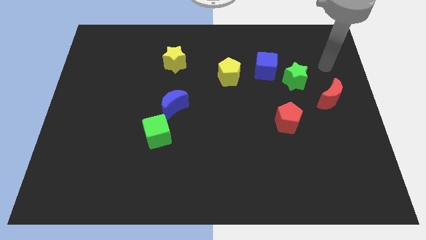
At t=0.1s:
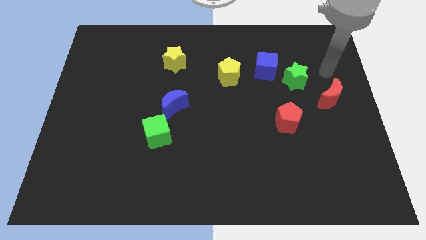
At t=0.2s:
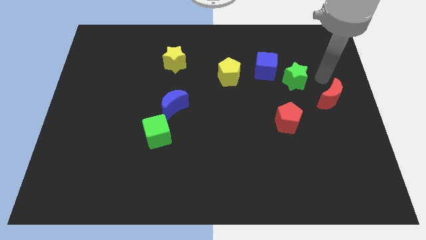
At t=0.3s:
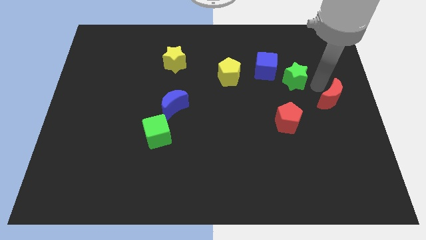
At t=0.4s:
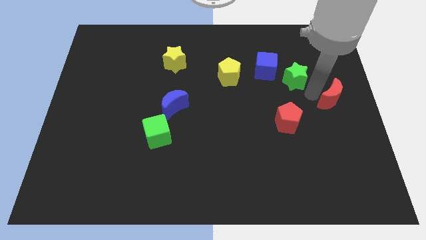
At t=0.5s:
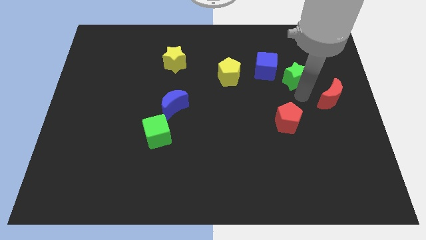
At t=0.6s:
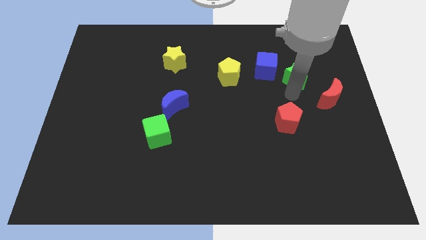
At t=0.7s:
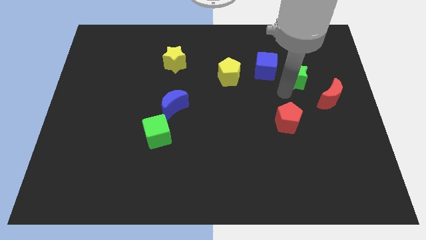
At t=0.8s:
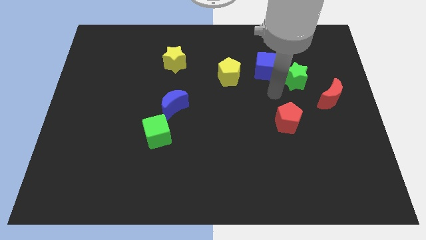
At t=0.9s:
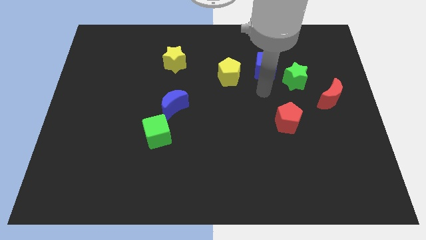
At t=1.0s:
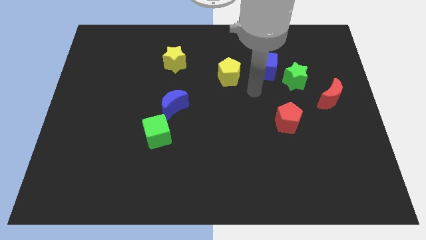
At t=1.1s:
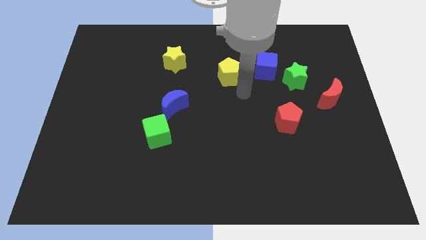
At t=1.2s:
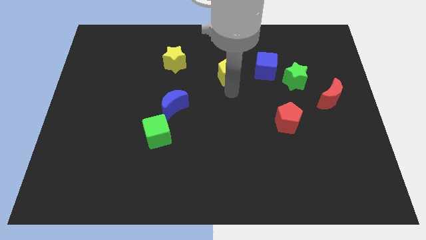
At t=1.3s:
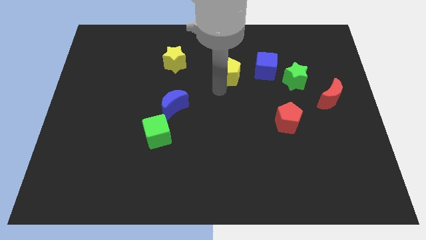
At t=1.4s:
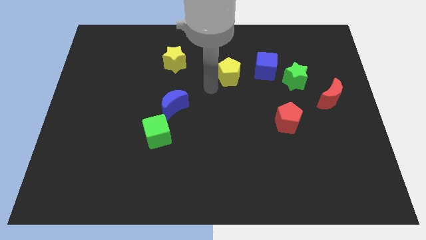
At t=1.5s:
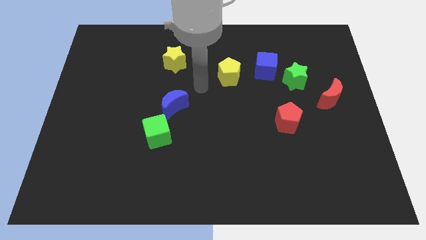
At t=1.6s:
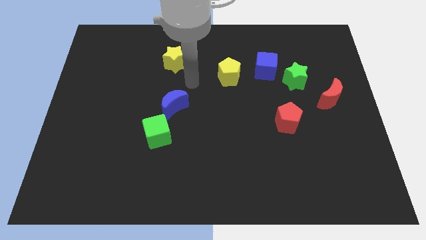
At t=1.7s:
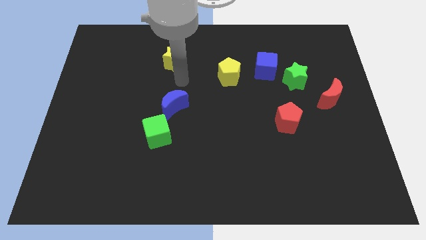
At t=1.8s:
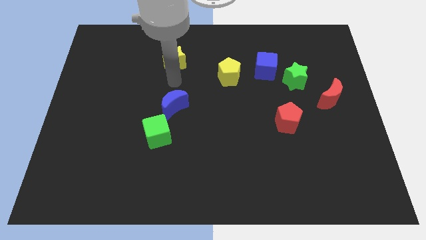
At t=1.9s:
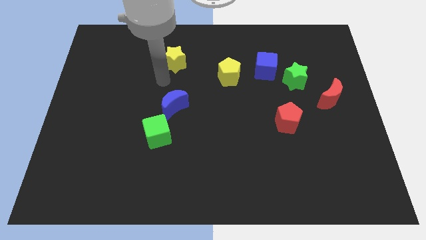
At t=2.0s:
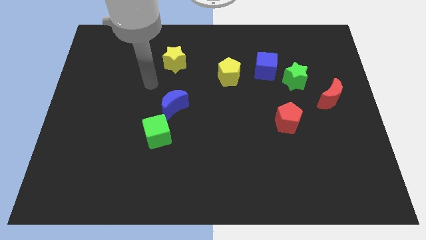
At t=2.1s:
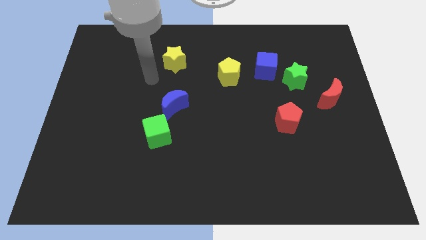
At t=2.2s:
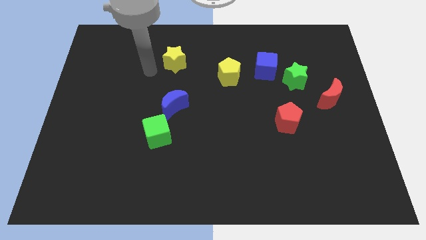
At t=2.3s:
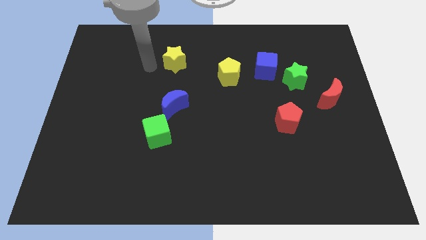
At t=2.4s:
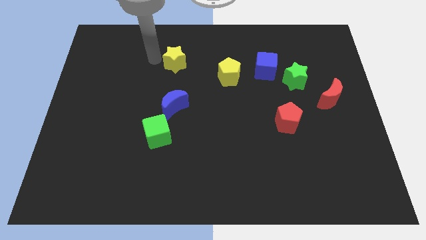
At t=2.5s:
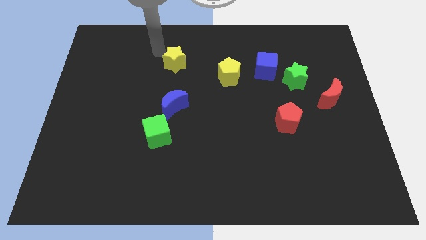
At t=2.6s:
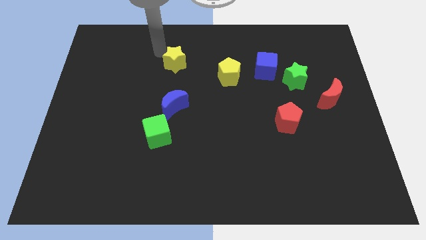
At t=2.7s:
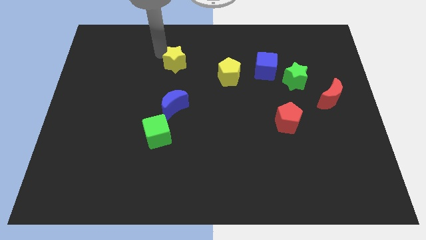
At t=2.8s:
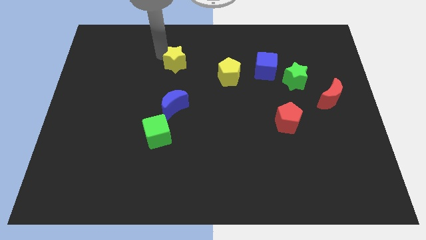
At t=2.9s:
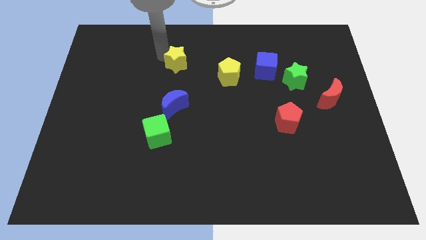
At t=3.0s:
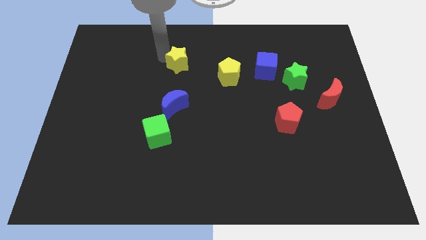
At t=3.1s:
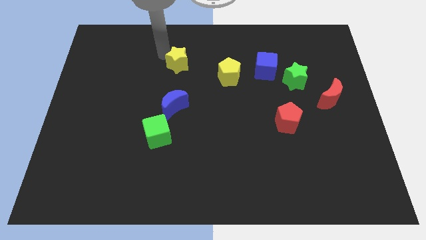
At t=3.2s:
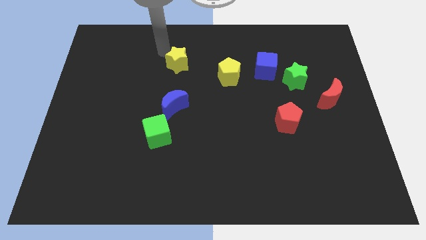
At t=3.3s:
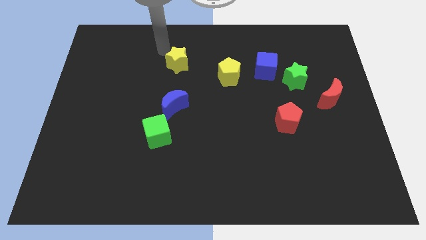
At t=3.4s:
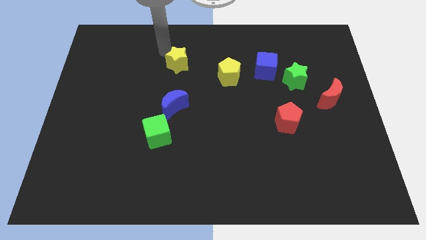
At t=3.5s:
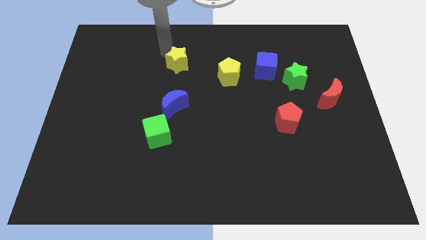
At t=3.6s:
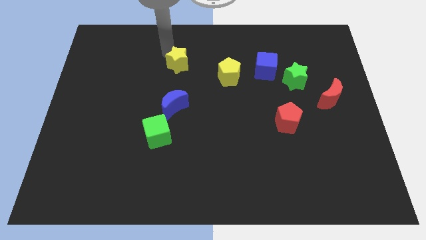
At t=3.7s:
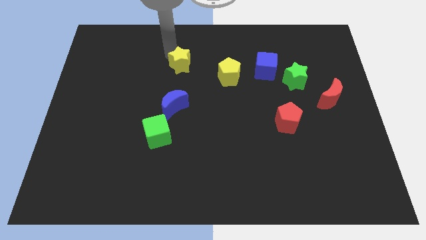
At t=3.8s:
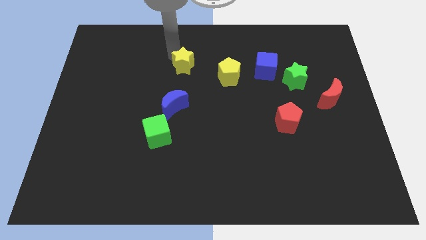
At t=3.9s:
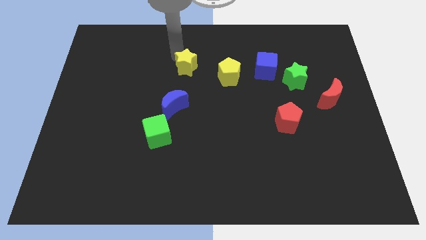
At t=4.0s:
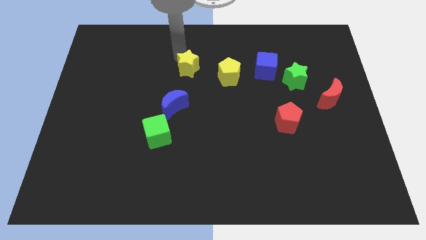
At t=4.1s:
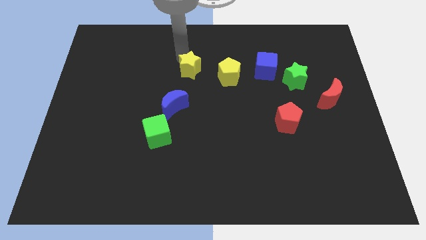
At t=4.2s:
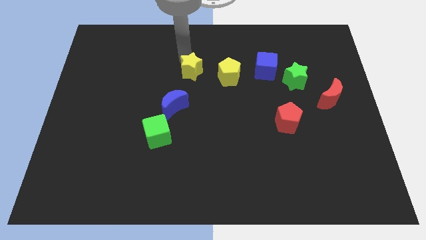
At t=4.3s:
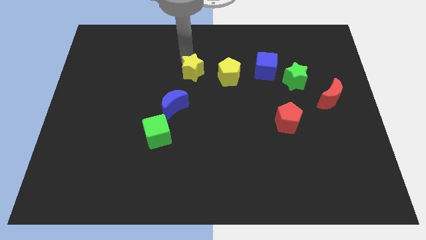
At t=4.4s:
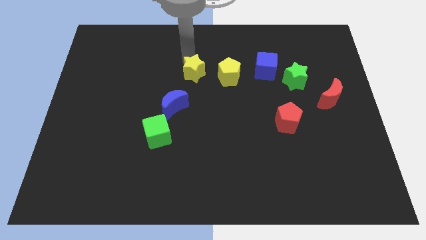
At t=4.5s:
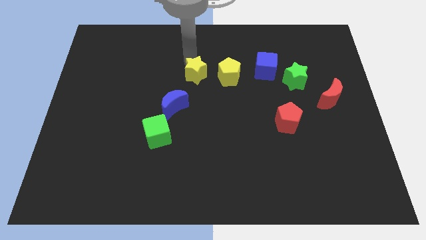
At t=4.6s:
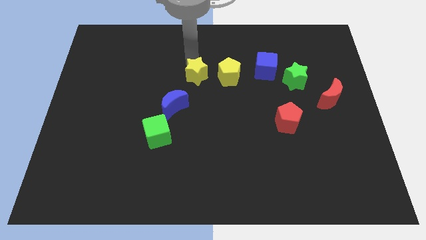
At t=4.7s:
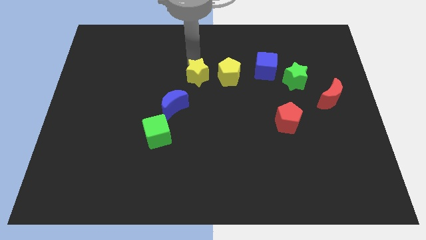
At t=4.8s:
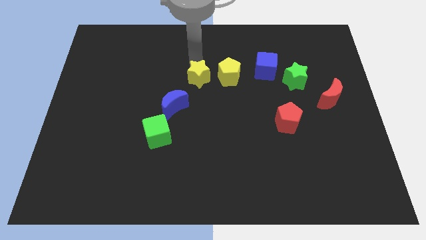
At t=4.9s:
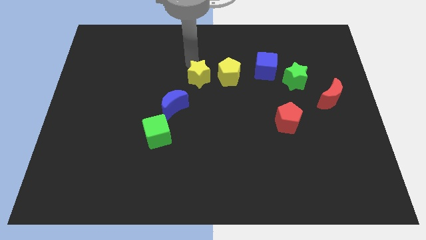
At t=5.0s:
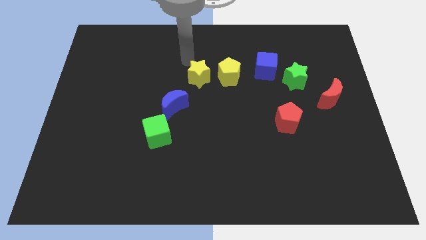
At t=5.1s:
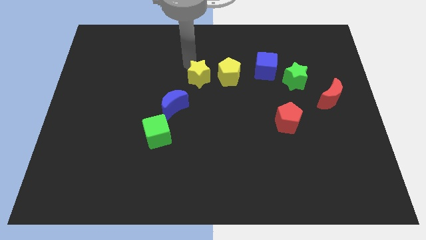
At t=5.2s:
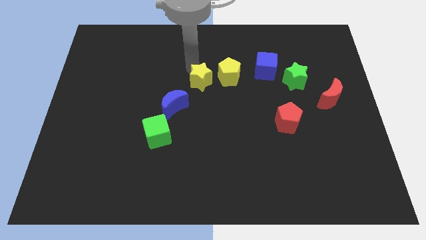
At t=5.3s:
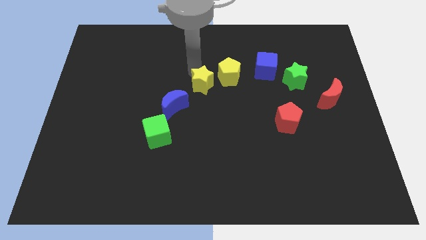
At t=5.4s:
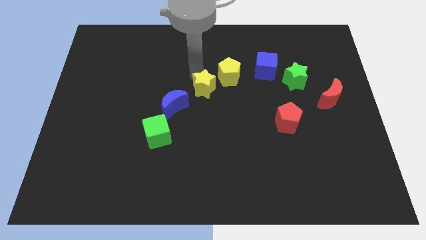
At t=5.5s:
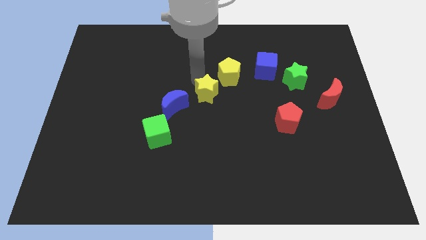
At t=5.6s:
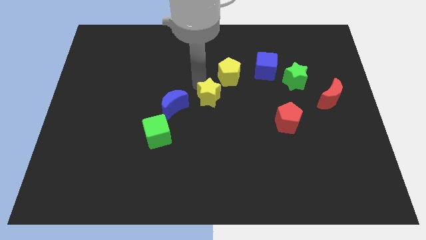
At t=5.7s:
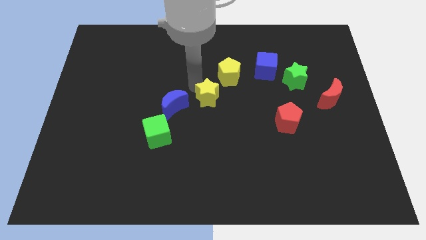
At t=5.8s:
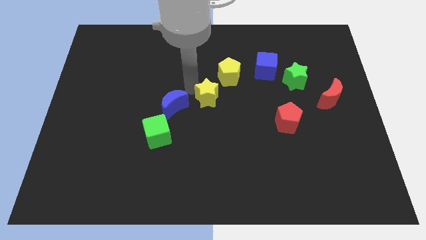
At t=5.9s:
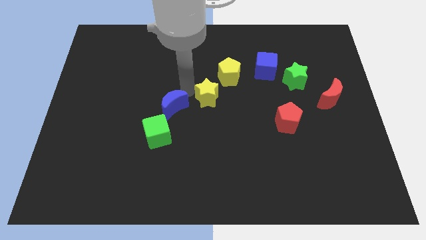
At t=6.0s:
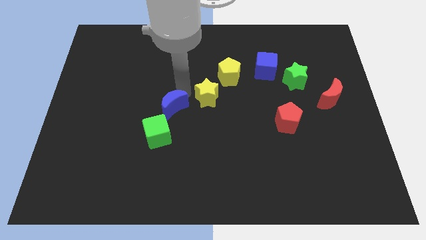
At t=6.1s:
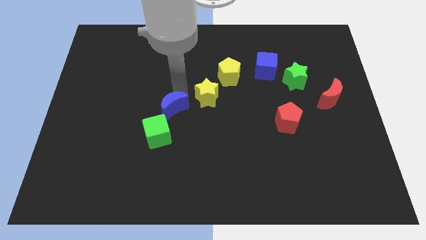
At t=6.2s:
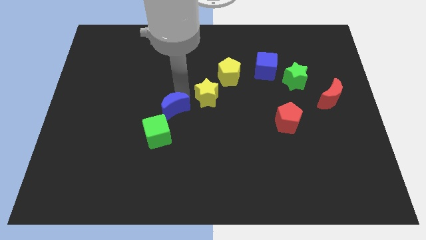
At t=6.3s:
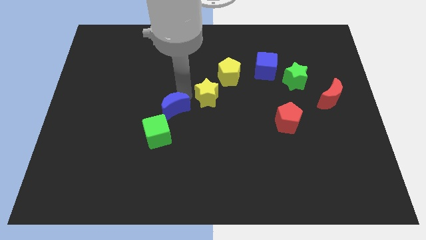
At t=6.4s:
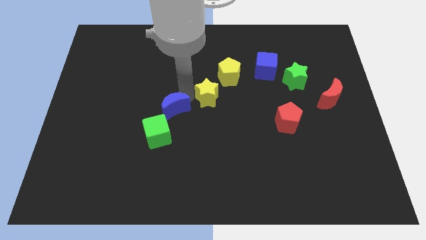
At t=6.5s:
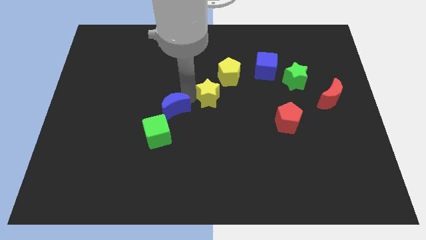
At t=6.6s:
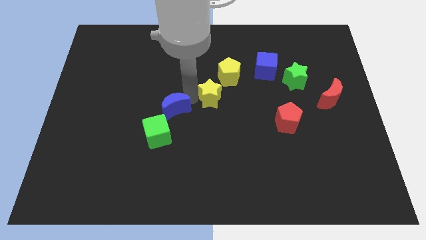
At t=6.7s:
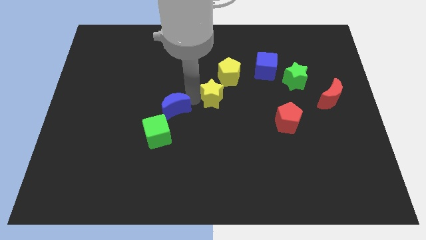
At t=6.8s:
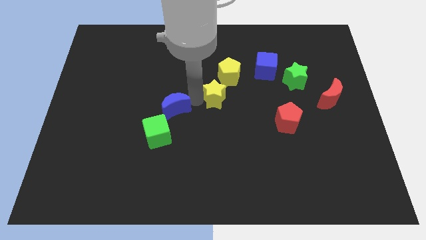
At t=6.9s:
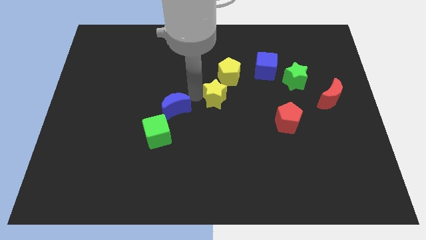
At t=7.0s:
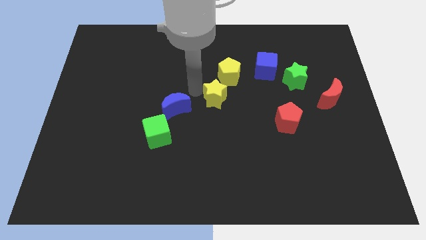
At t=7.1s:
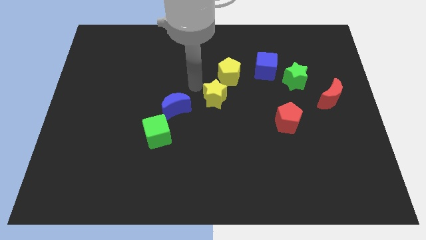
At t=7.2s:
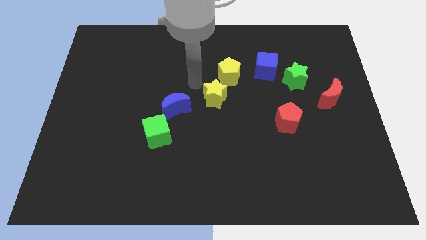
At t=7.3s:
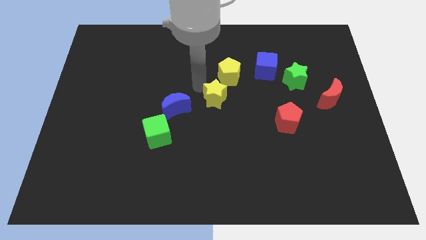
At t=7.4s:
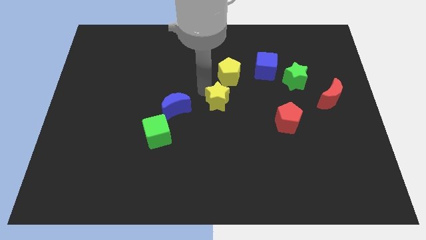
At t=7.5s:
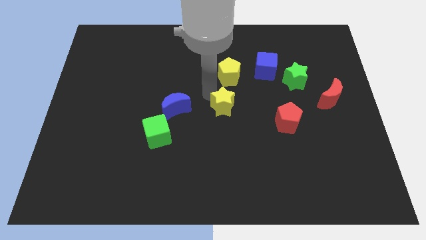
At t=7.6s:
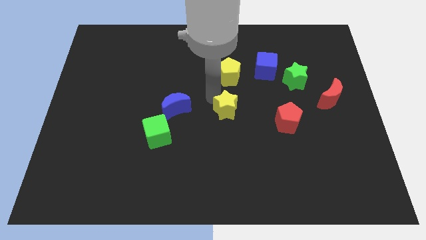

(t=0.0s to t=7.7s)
push the yellow star downwards and right diagonally
